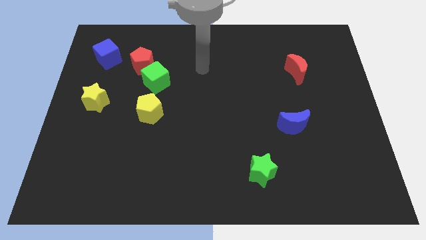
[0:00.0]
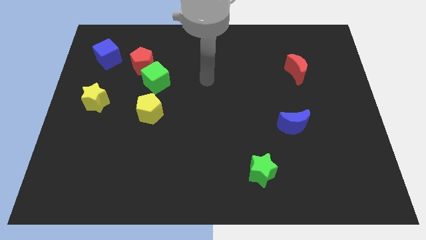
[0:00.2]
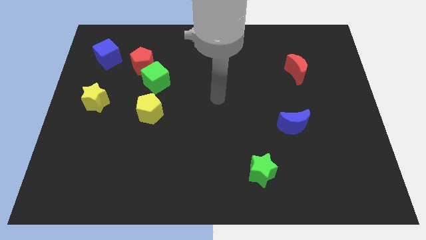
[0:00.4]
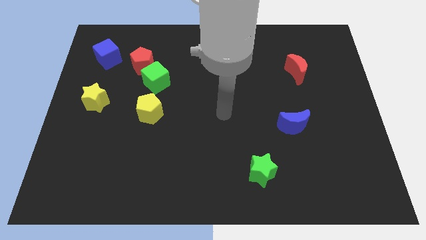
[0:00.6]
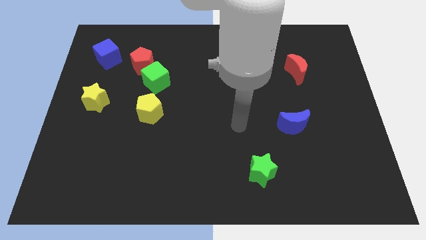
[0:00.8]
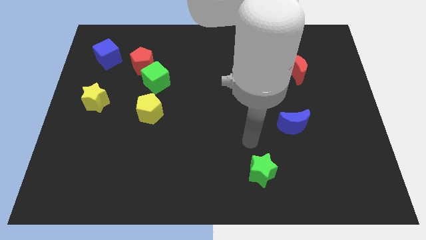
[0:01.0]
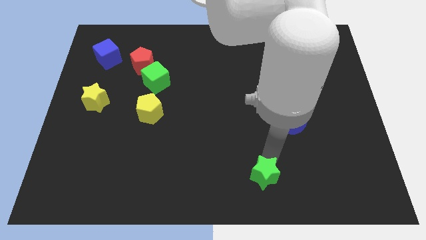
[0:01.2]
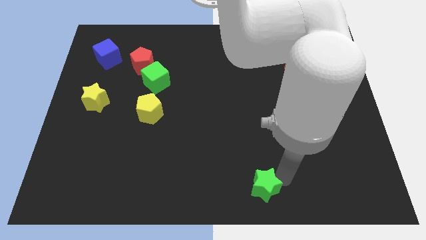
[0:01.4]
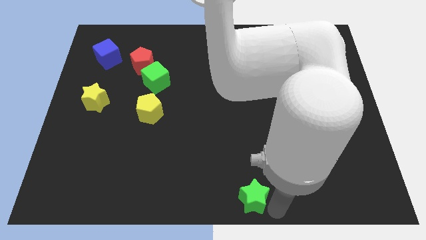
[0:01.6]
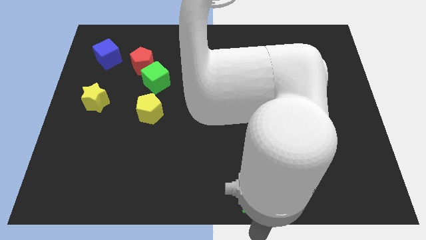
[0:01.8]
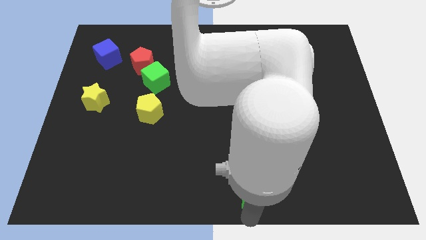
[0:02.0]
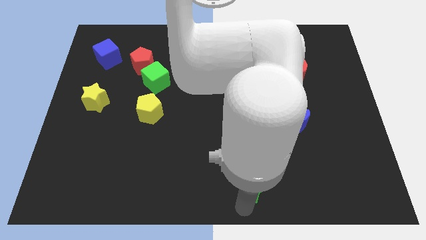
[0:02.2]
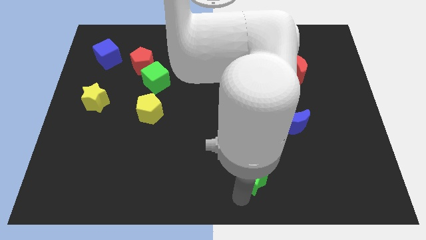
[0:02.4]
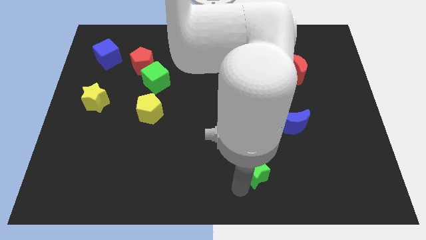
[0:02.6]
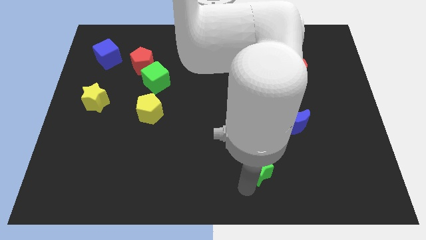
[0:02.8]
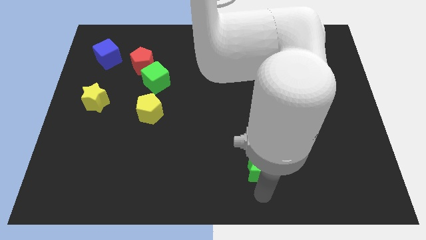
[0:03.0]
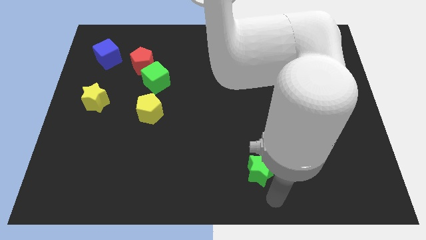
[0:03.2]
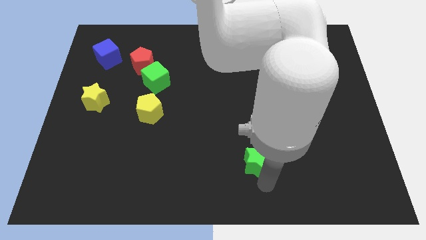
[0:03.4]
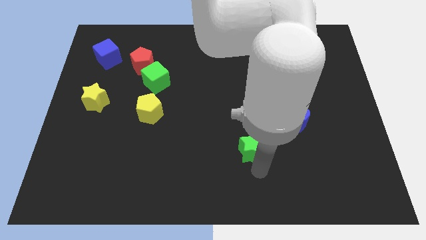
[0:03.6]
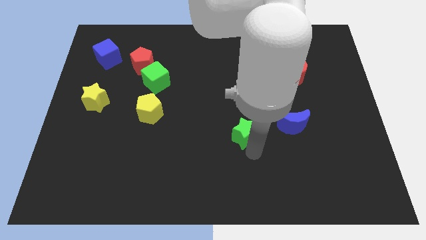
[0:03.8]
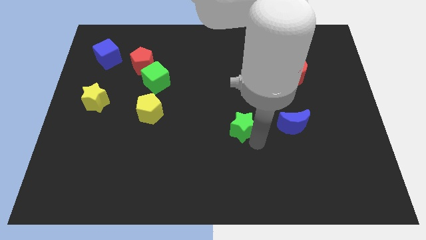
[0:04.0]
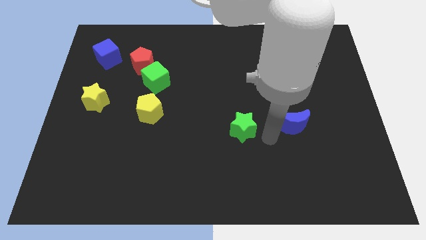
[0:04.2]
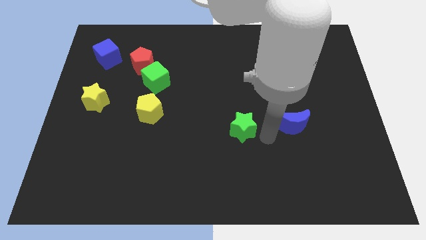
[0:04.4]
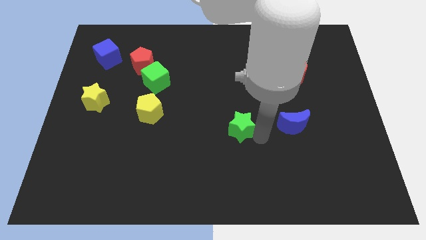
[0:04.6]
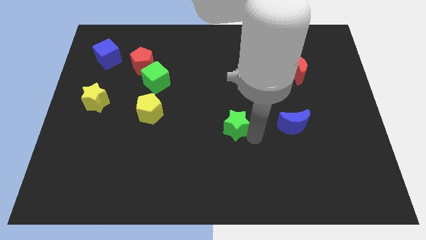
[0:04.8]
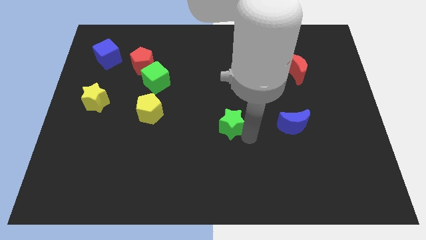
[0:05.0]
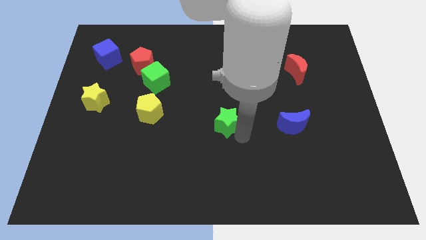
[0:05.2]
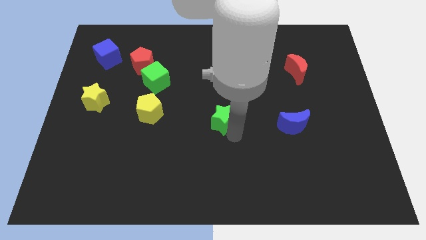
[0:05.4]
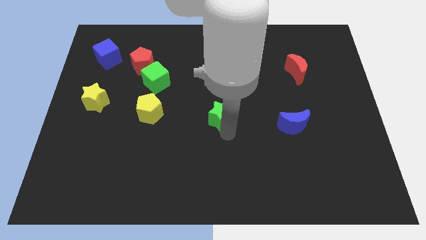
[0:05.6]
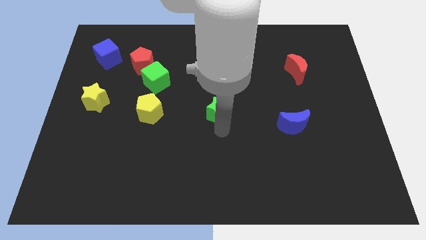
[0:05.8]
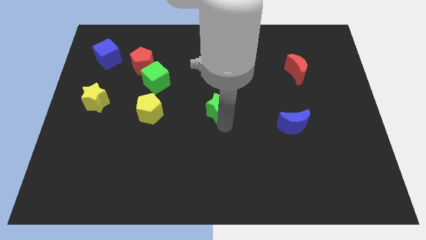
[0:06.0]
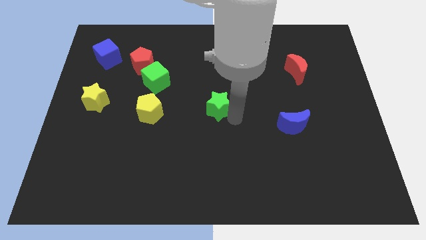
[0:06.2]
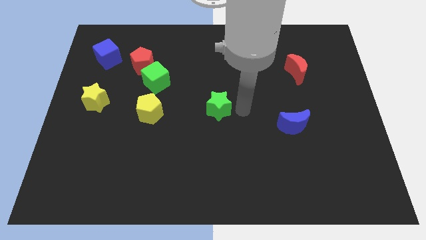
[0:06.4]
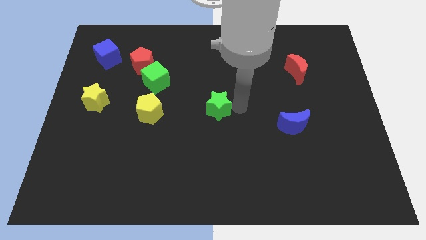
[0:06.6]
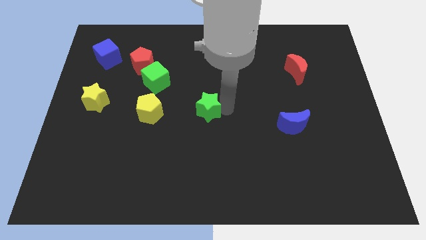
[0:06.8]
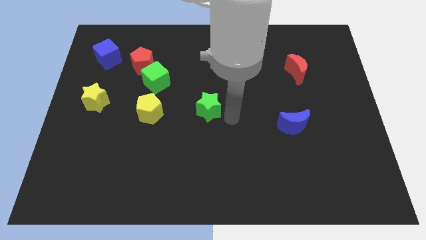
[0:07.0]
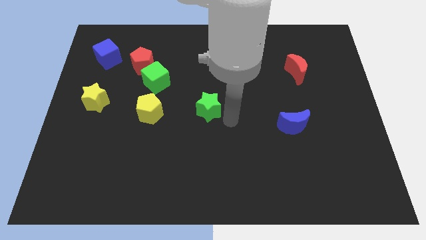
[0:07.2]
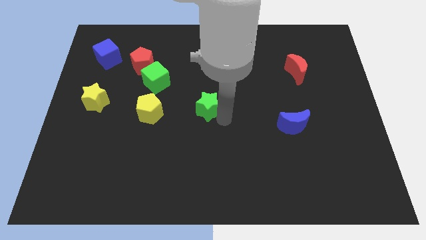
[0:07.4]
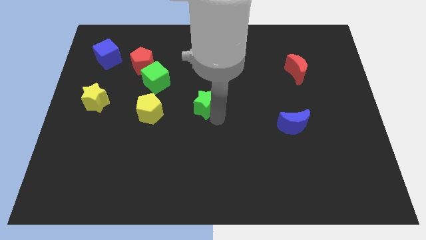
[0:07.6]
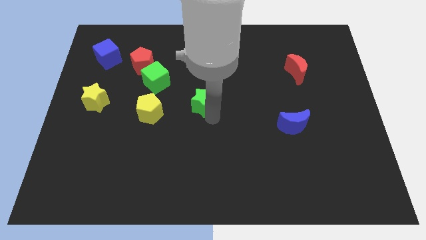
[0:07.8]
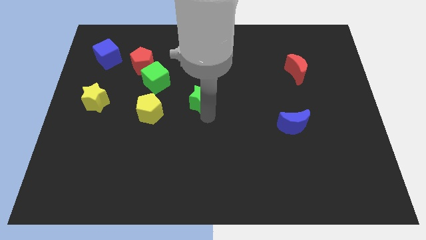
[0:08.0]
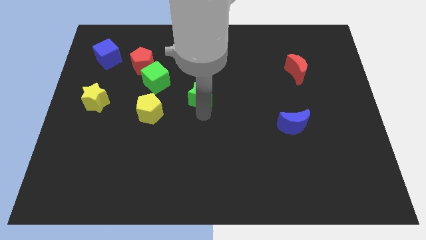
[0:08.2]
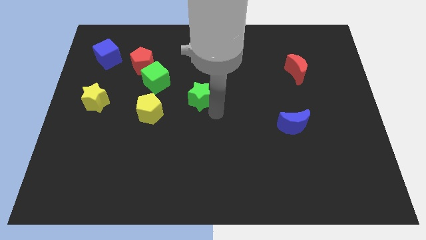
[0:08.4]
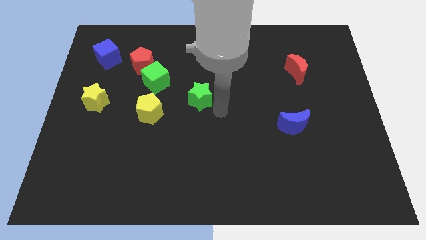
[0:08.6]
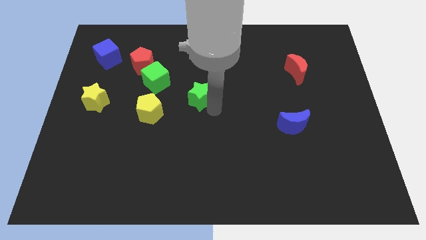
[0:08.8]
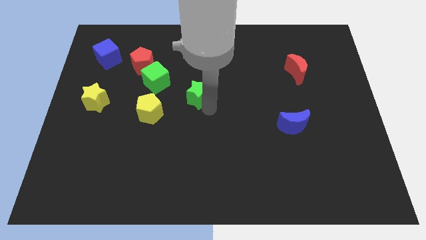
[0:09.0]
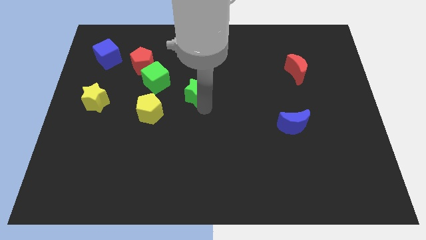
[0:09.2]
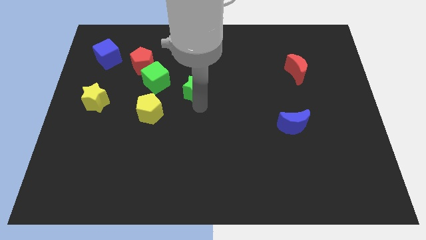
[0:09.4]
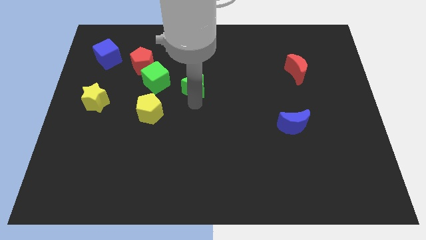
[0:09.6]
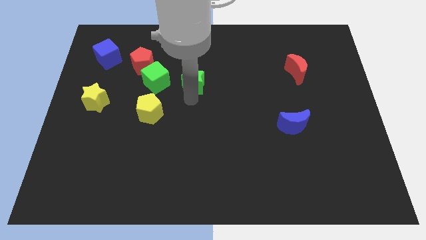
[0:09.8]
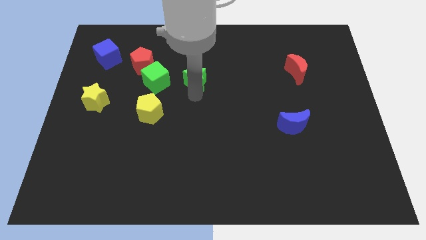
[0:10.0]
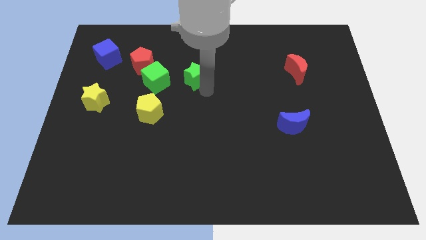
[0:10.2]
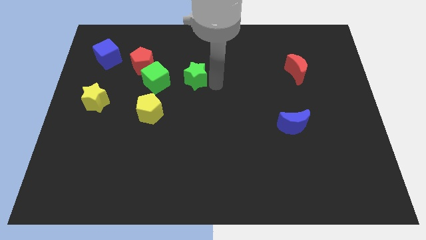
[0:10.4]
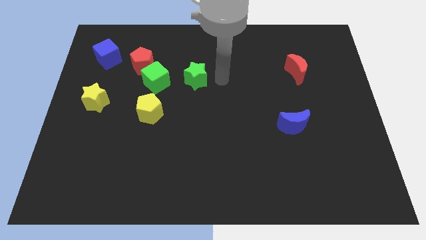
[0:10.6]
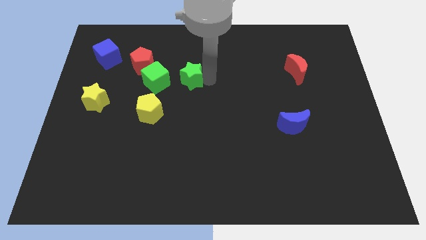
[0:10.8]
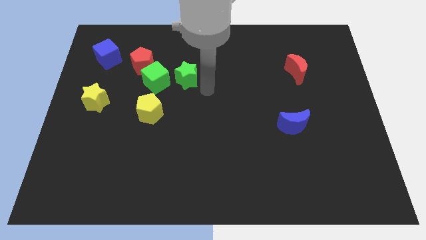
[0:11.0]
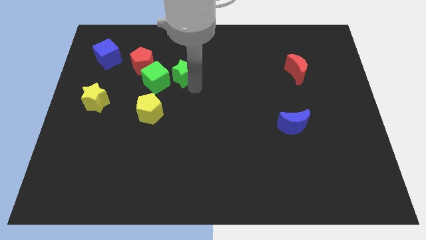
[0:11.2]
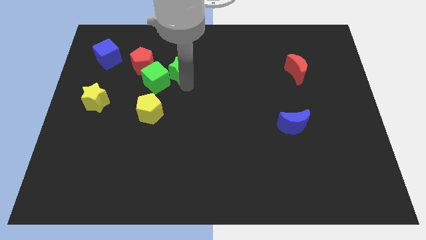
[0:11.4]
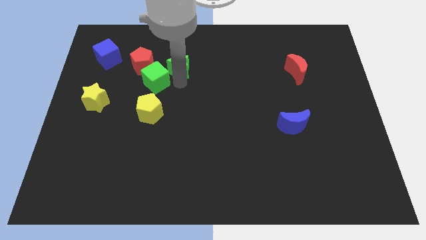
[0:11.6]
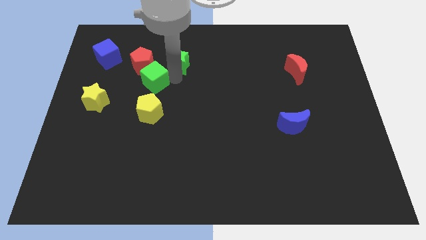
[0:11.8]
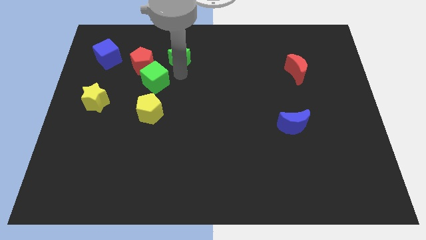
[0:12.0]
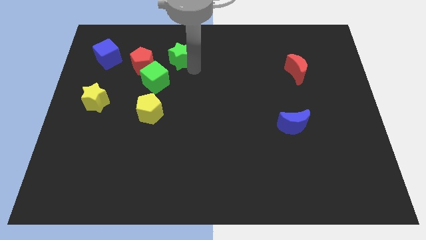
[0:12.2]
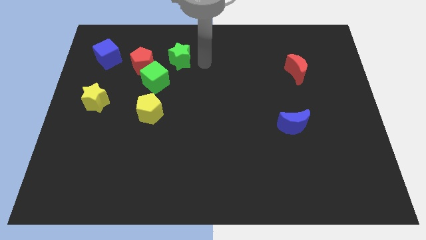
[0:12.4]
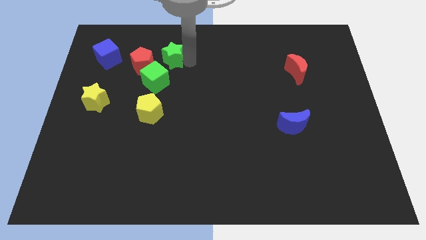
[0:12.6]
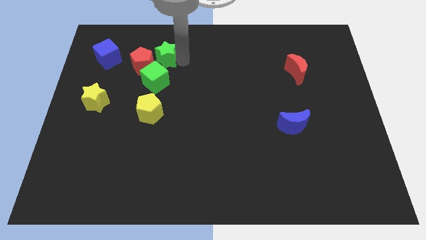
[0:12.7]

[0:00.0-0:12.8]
move the green star just right of the blue cube

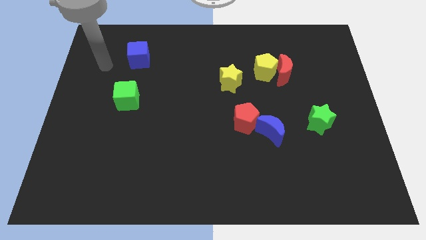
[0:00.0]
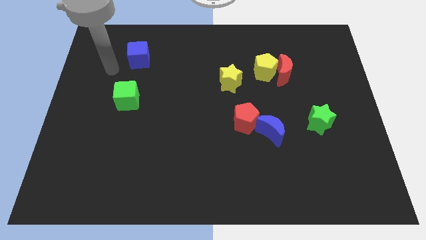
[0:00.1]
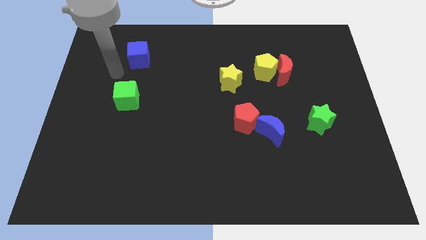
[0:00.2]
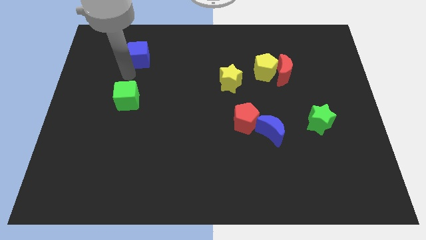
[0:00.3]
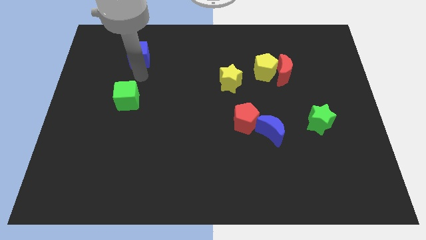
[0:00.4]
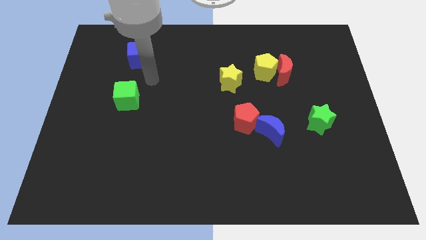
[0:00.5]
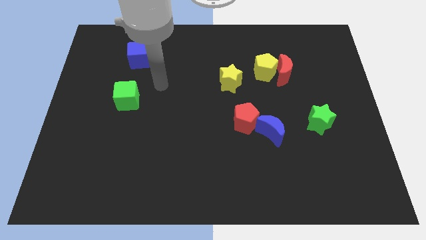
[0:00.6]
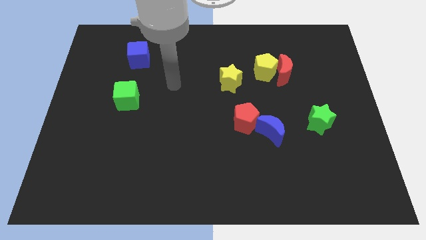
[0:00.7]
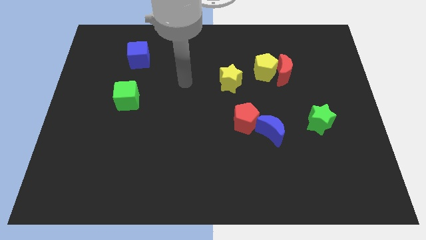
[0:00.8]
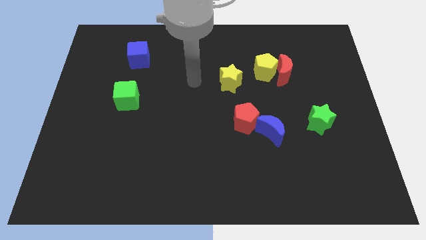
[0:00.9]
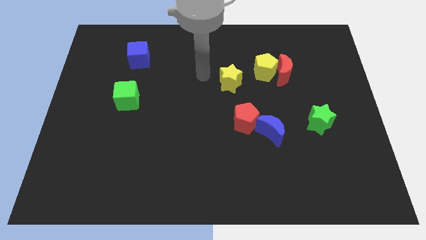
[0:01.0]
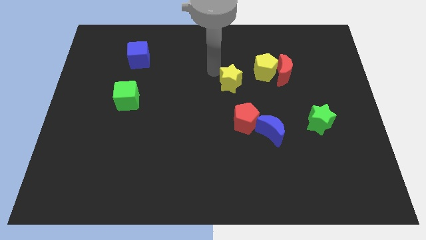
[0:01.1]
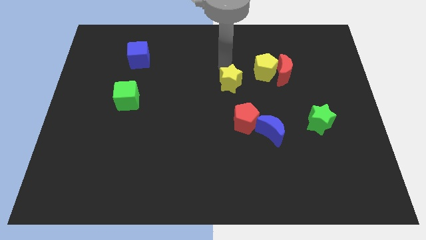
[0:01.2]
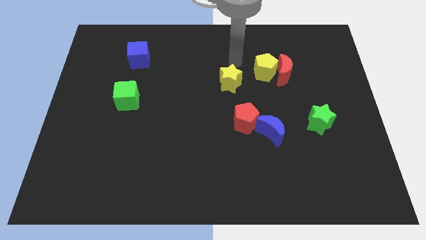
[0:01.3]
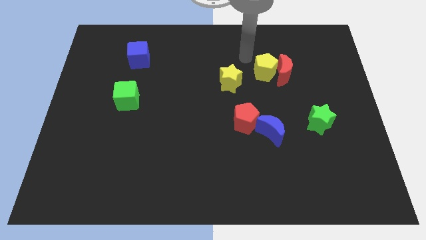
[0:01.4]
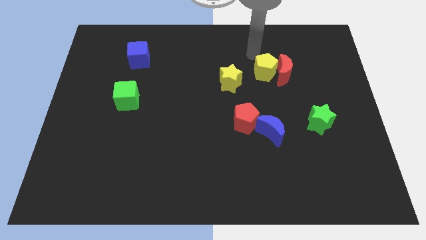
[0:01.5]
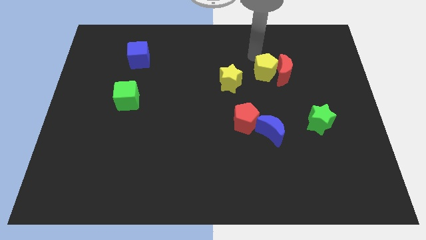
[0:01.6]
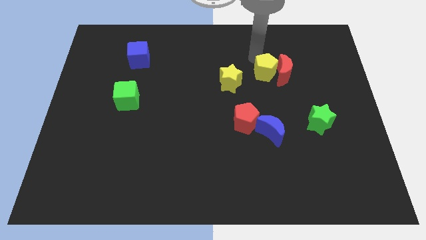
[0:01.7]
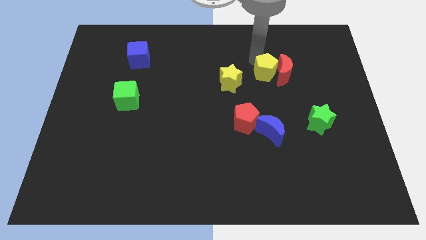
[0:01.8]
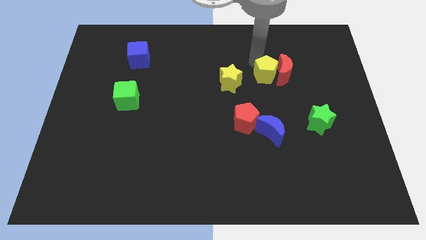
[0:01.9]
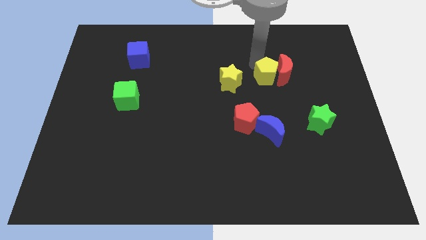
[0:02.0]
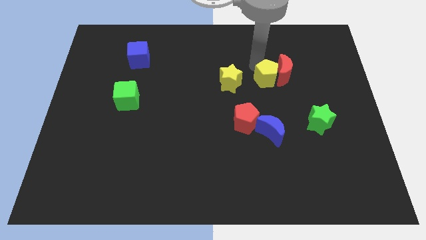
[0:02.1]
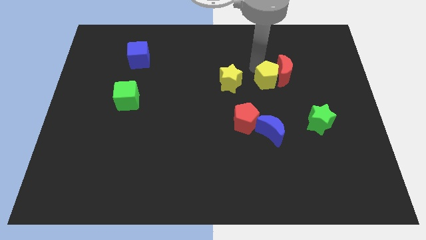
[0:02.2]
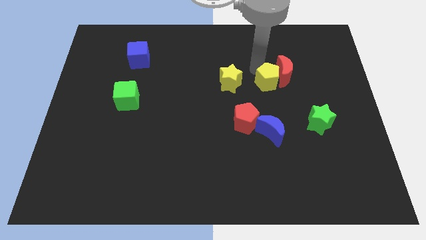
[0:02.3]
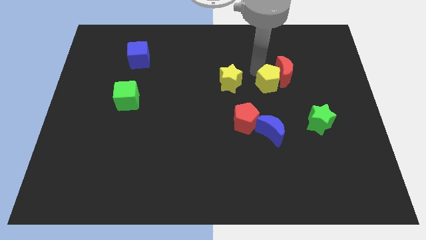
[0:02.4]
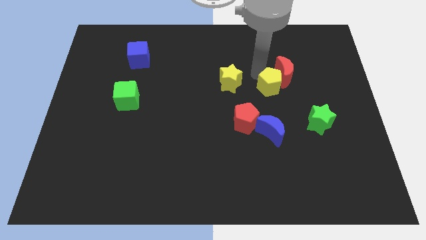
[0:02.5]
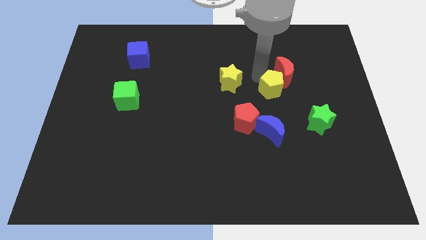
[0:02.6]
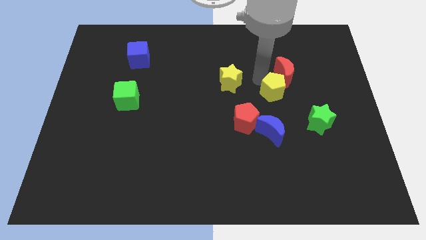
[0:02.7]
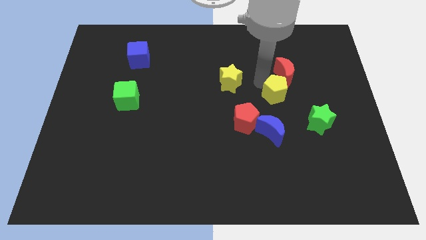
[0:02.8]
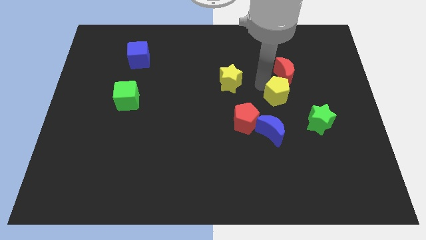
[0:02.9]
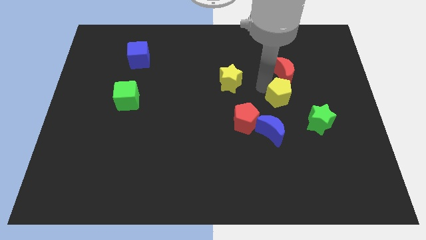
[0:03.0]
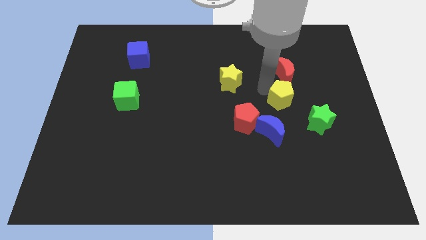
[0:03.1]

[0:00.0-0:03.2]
put the yellow pentagon diagonally up and to the right of the blue moon
